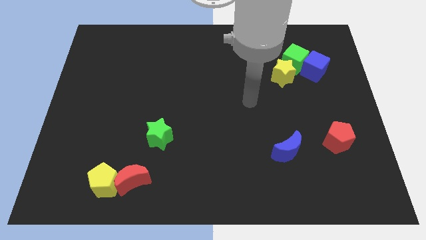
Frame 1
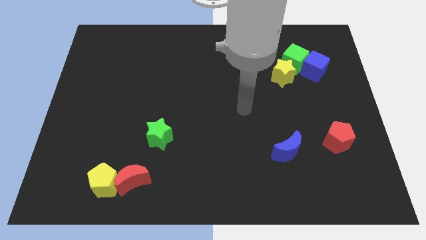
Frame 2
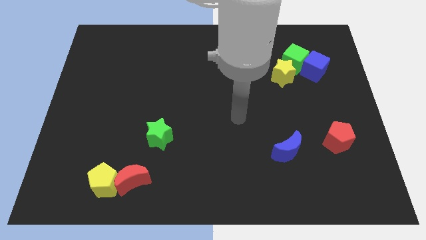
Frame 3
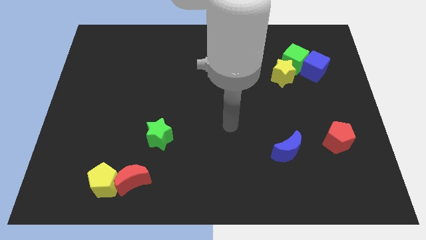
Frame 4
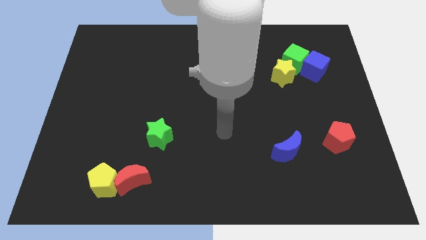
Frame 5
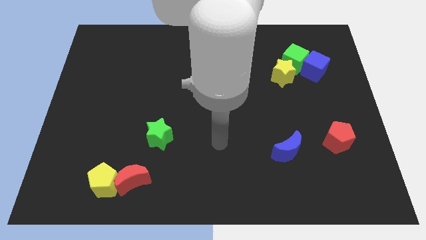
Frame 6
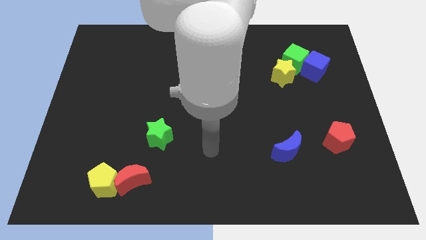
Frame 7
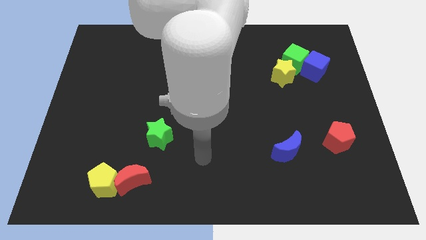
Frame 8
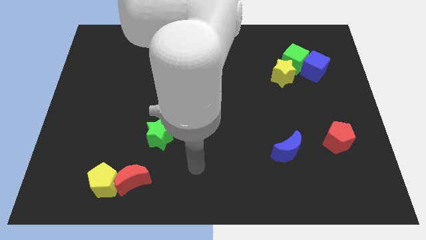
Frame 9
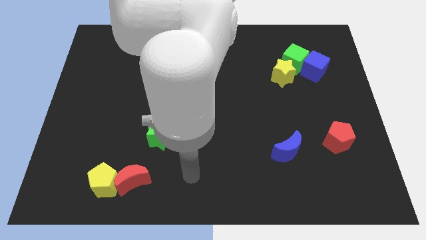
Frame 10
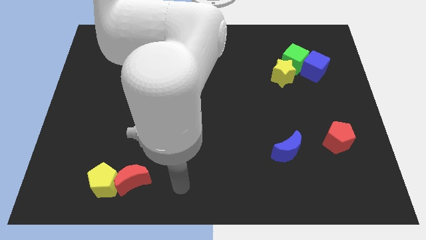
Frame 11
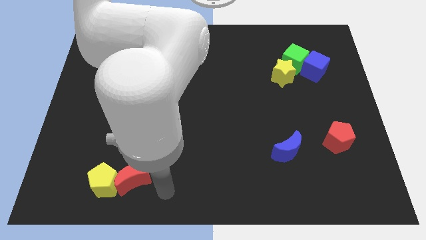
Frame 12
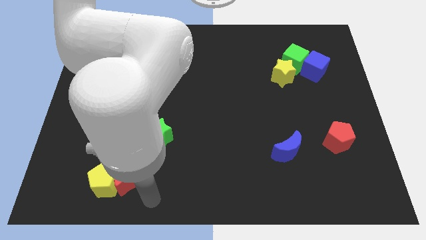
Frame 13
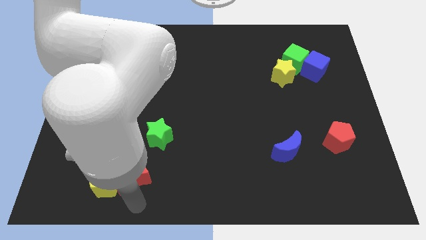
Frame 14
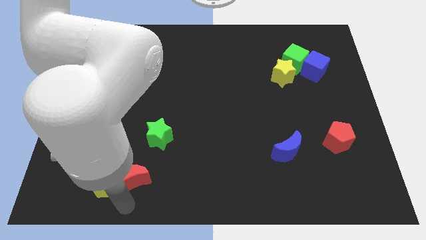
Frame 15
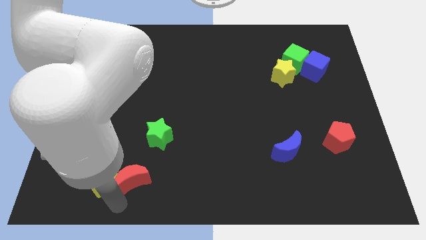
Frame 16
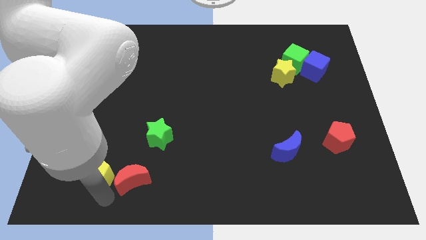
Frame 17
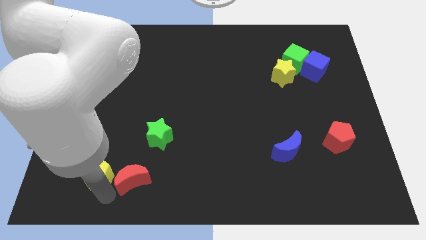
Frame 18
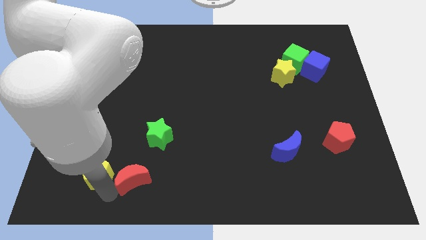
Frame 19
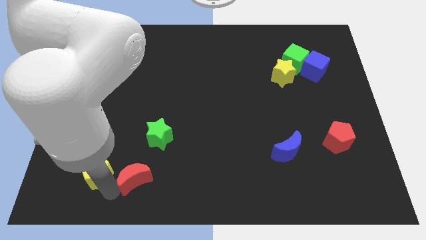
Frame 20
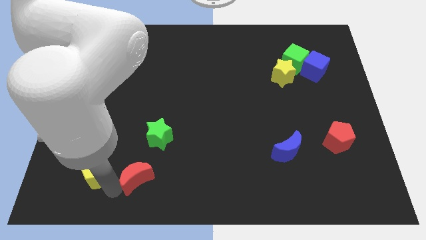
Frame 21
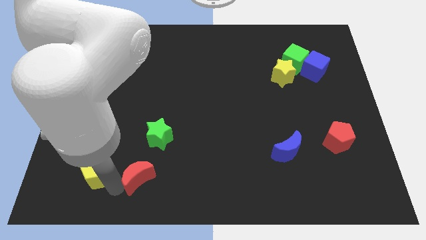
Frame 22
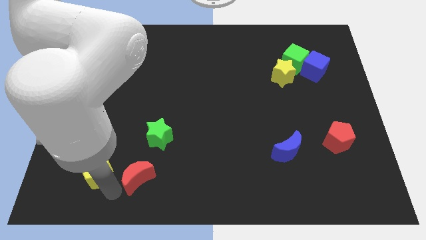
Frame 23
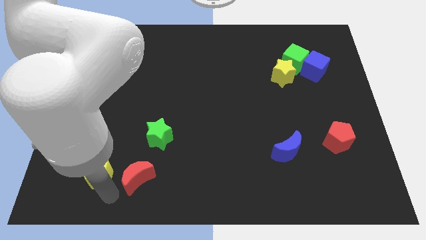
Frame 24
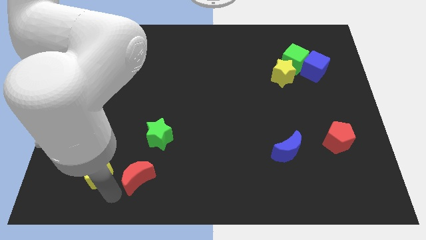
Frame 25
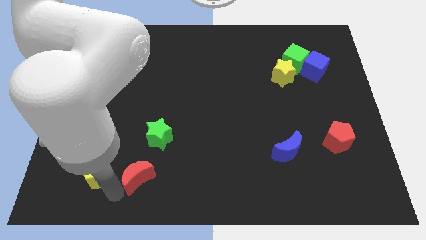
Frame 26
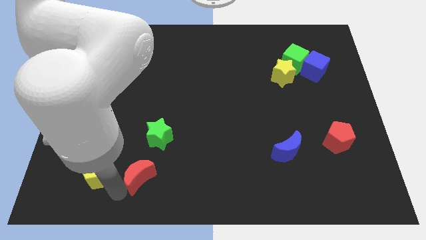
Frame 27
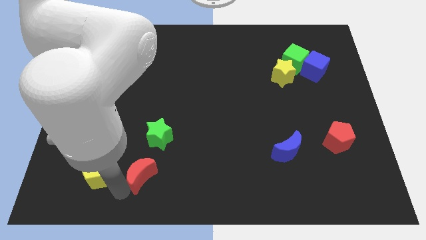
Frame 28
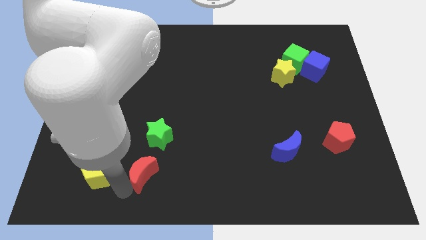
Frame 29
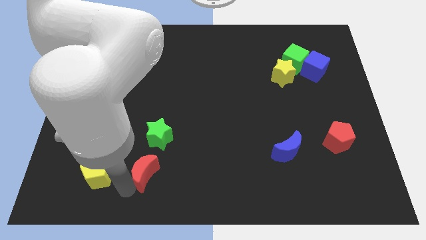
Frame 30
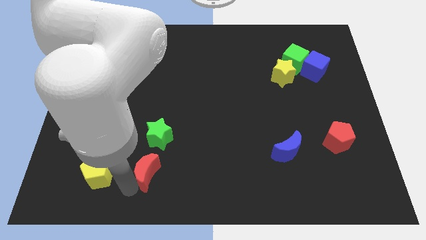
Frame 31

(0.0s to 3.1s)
separate the red moon from the yellow pentagon

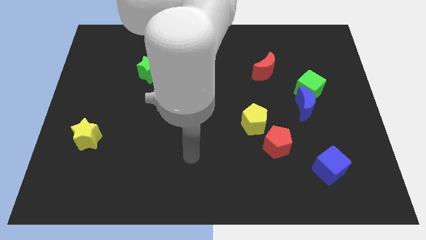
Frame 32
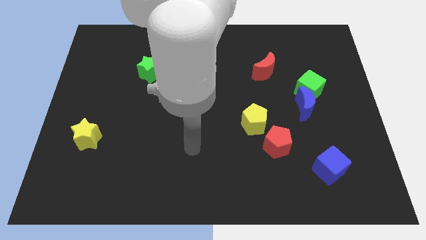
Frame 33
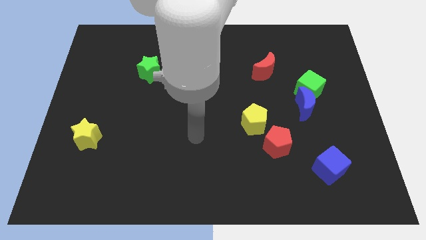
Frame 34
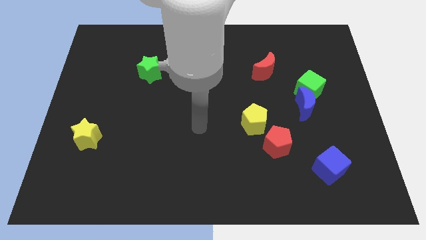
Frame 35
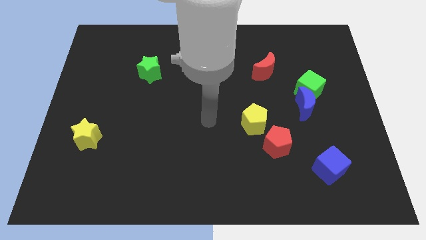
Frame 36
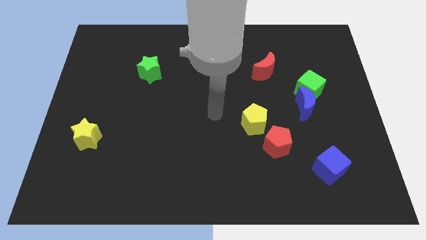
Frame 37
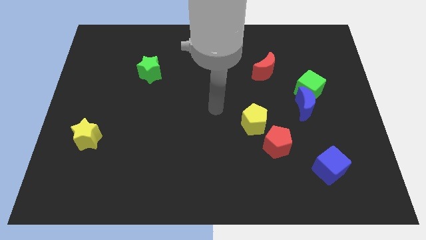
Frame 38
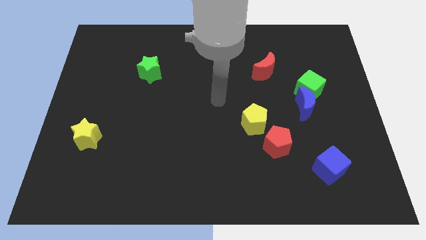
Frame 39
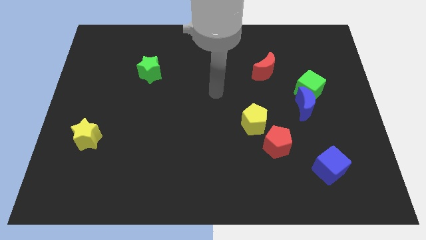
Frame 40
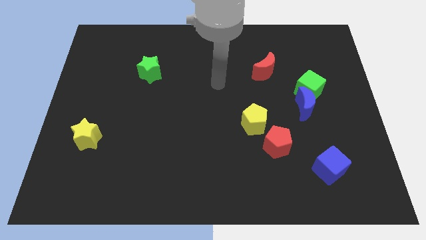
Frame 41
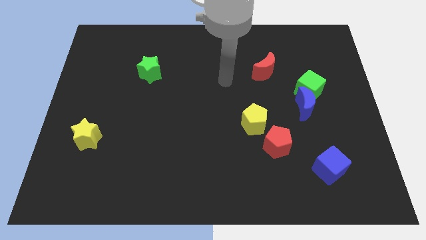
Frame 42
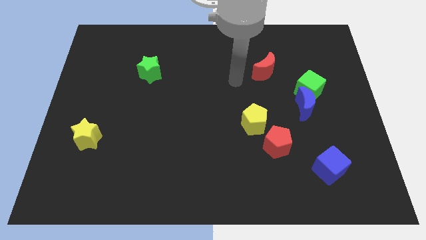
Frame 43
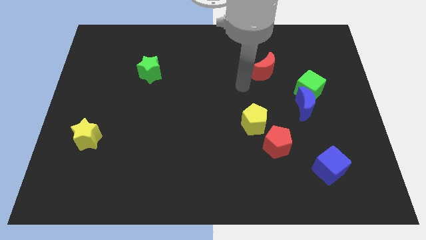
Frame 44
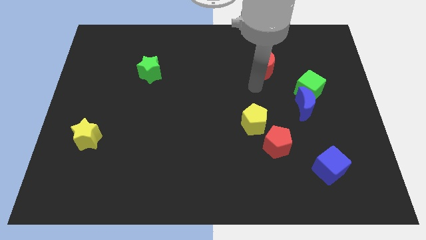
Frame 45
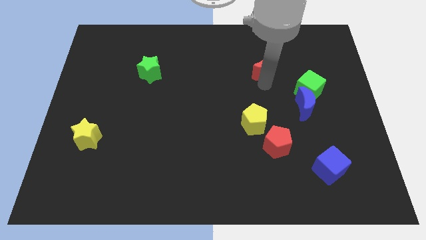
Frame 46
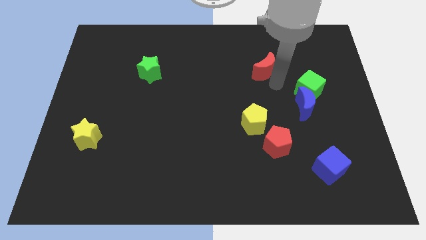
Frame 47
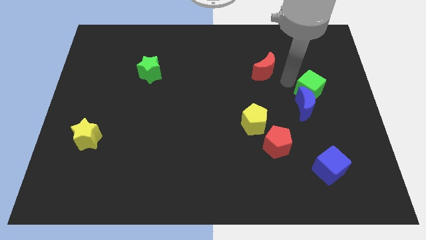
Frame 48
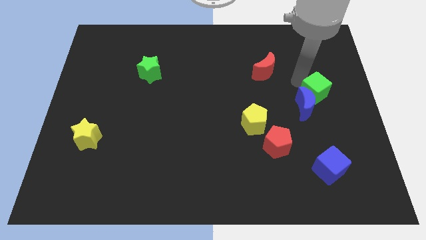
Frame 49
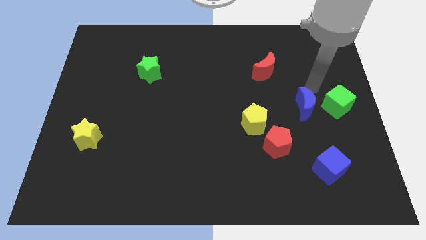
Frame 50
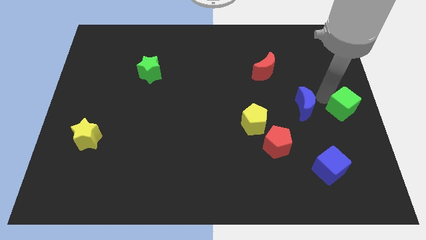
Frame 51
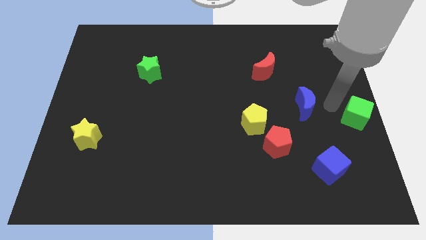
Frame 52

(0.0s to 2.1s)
pull the blue moon apart from the green cube

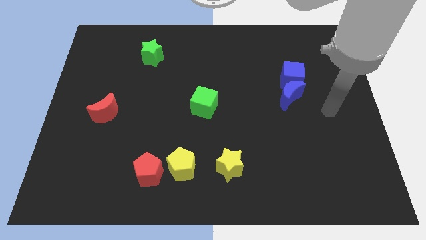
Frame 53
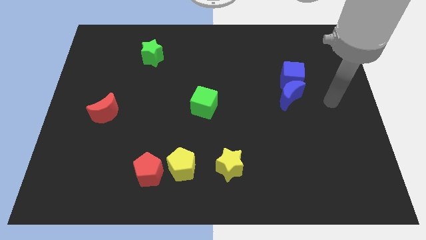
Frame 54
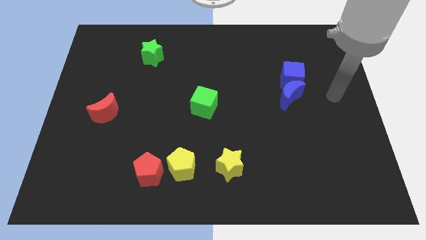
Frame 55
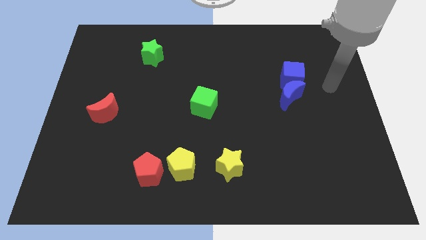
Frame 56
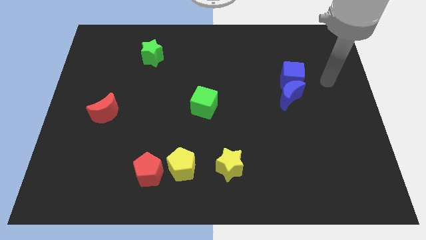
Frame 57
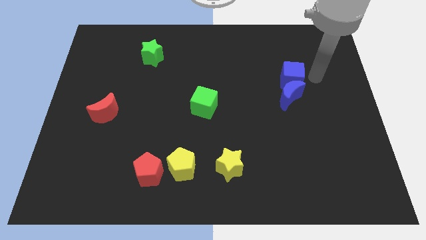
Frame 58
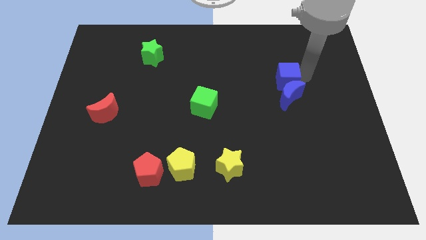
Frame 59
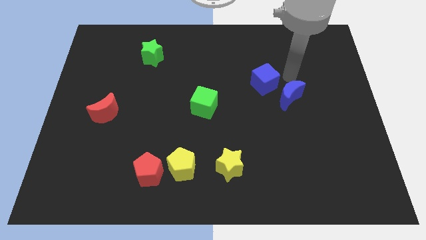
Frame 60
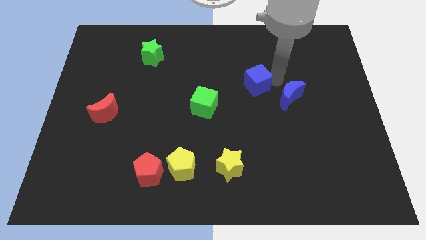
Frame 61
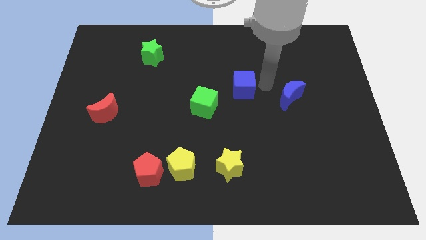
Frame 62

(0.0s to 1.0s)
separate the blue moon from the blue cube

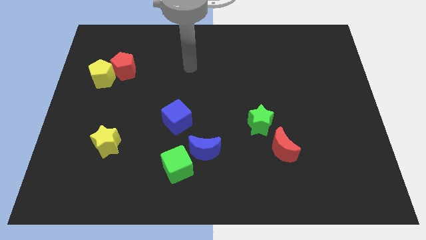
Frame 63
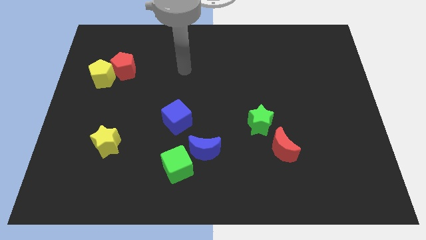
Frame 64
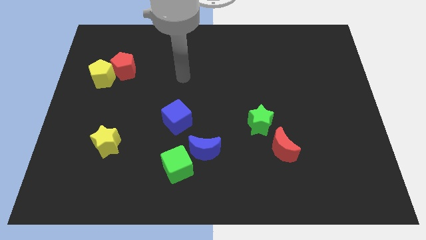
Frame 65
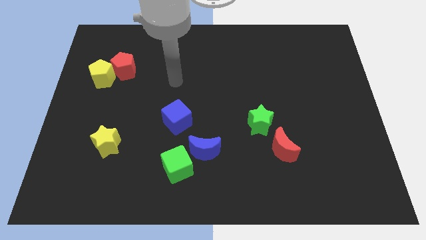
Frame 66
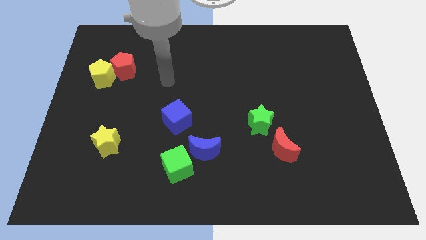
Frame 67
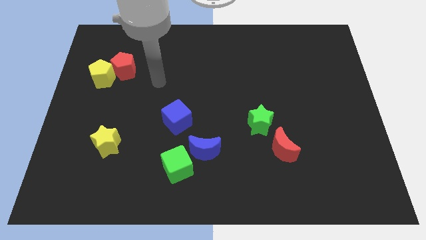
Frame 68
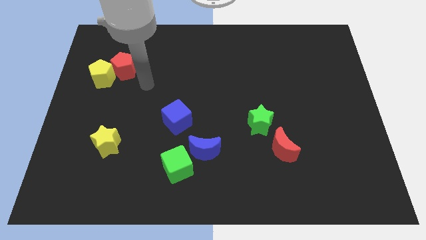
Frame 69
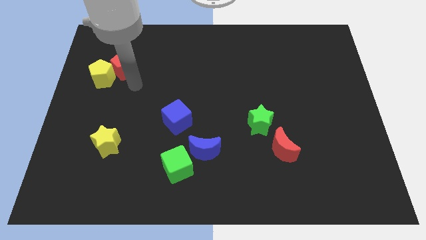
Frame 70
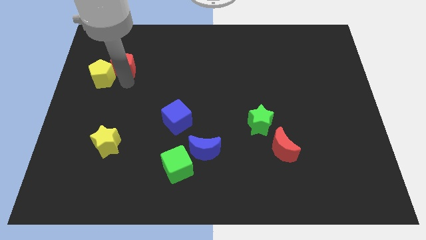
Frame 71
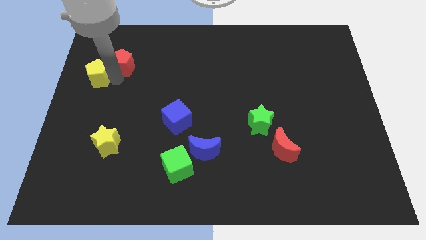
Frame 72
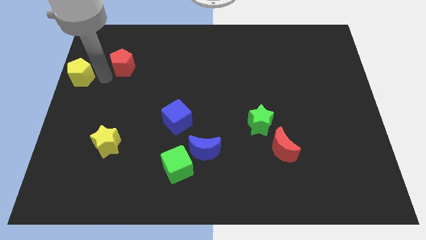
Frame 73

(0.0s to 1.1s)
separate the red pentagon from the yellow pentagon

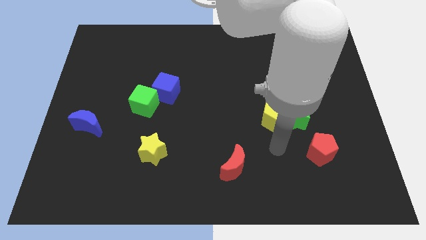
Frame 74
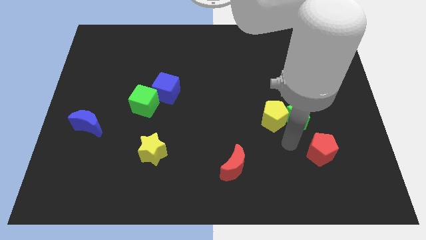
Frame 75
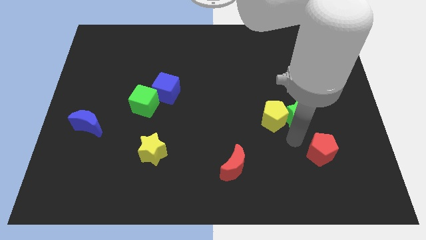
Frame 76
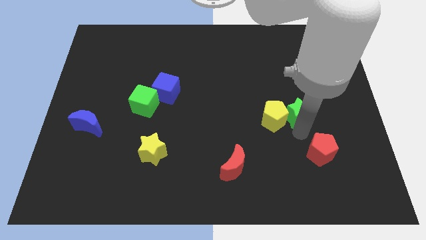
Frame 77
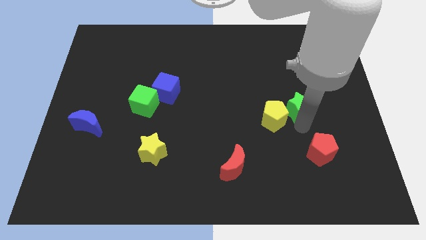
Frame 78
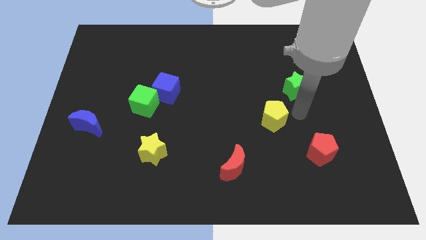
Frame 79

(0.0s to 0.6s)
move the yellow pentagon away from the green star

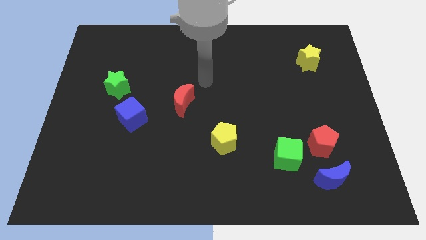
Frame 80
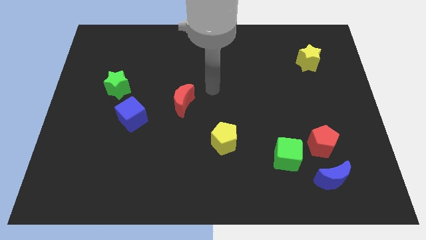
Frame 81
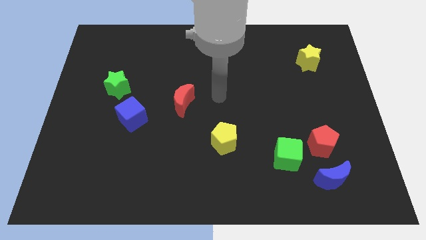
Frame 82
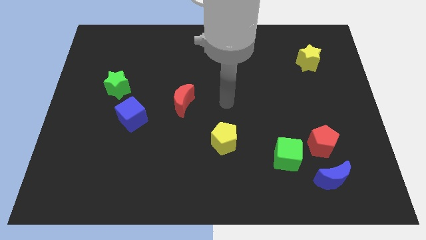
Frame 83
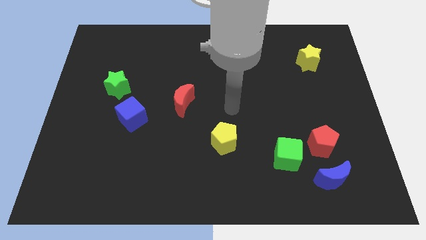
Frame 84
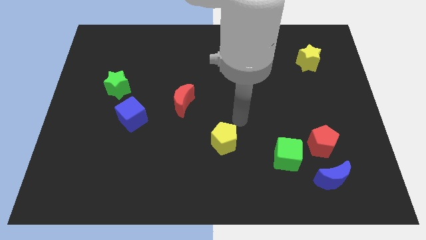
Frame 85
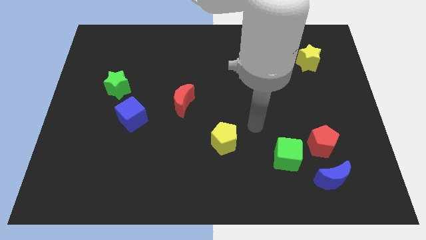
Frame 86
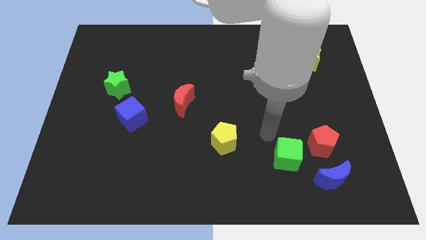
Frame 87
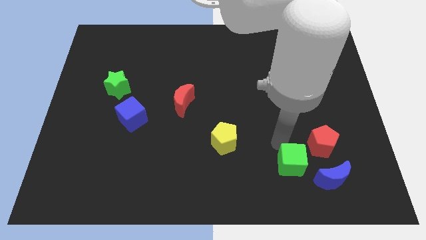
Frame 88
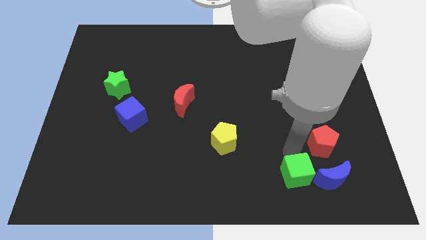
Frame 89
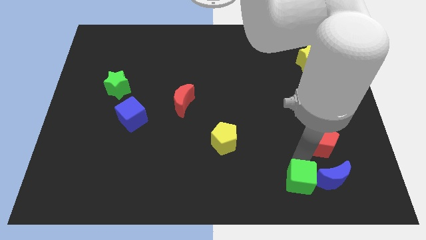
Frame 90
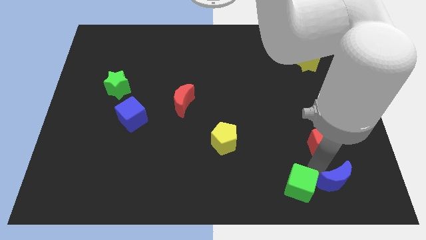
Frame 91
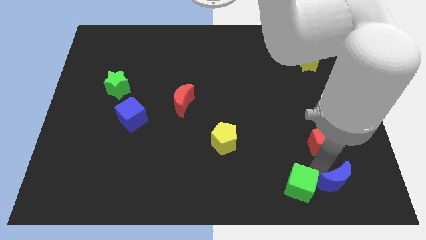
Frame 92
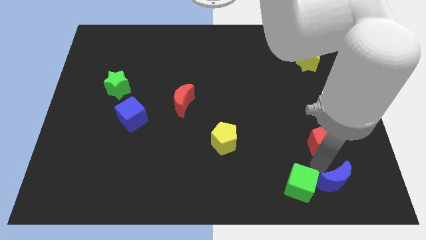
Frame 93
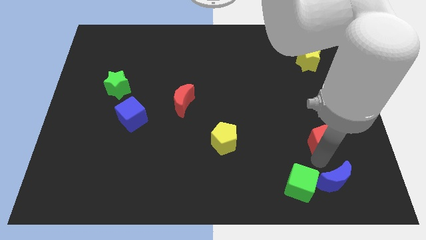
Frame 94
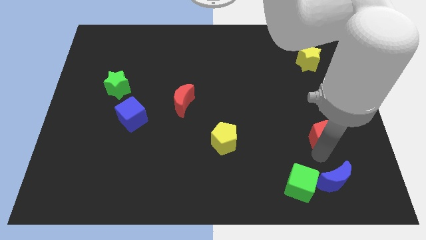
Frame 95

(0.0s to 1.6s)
move the red pentagon away from the blue moon and green cube
